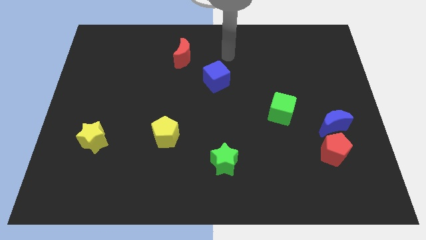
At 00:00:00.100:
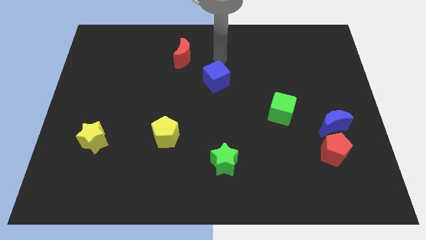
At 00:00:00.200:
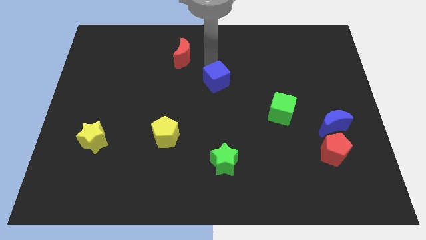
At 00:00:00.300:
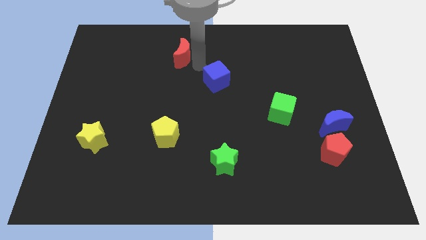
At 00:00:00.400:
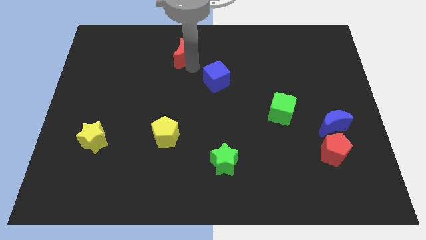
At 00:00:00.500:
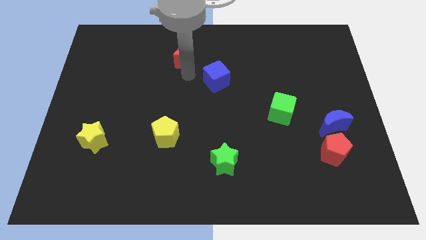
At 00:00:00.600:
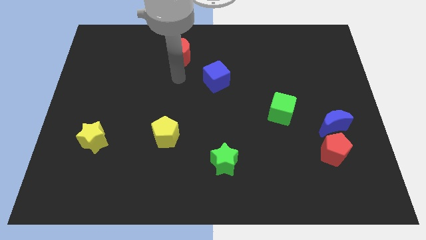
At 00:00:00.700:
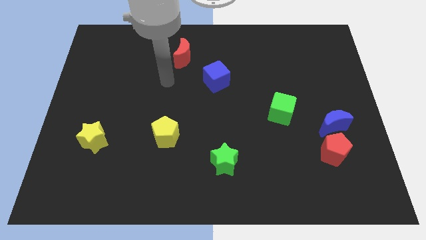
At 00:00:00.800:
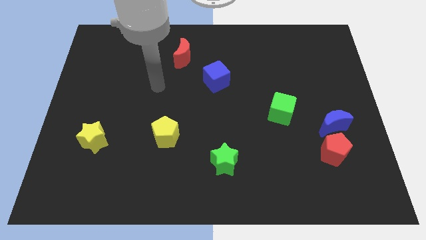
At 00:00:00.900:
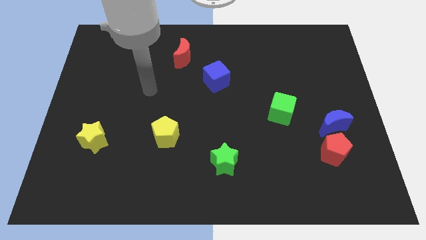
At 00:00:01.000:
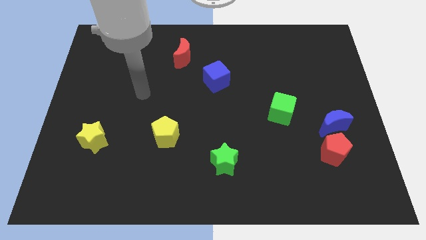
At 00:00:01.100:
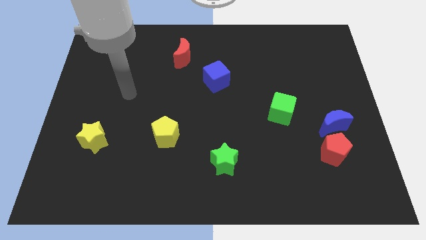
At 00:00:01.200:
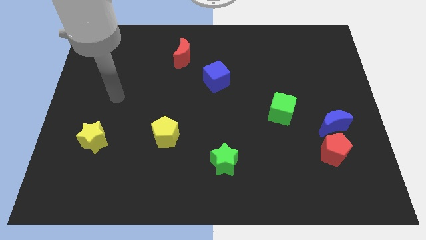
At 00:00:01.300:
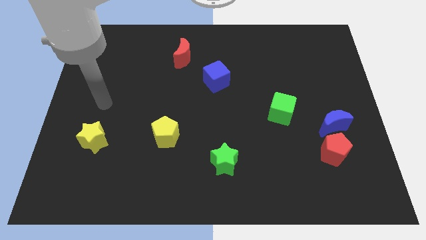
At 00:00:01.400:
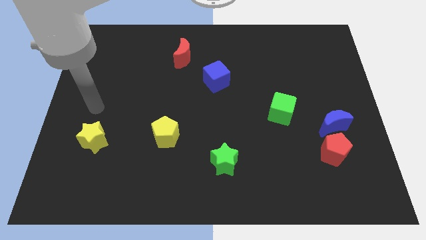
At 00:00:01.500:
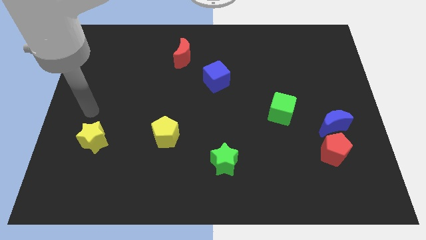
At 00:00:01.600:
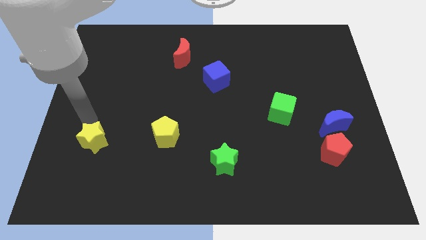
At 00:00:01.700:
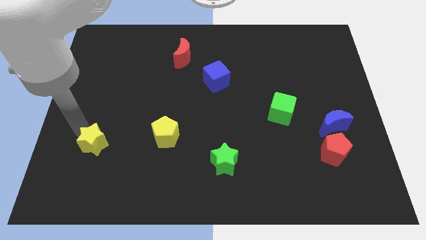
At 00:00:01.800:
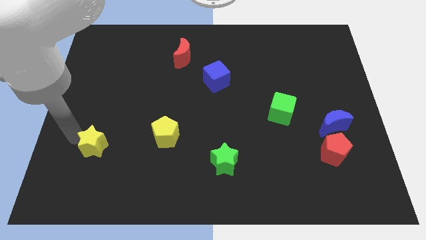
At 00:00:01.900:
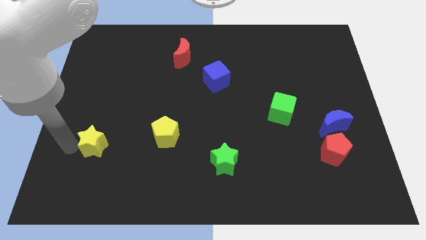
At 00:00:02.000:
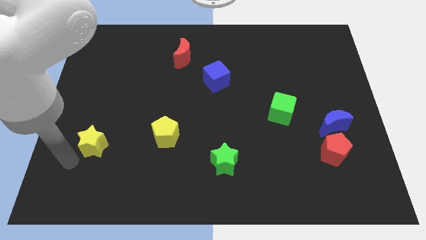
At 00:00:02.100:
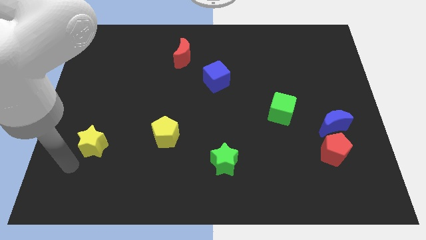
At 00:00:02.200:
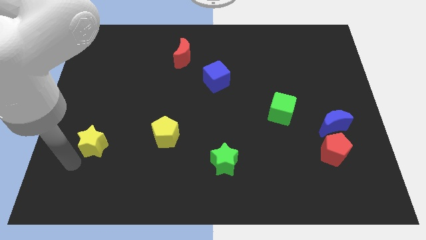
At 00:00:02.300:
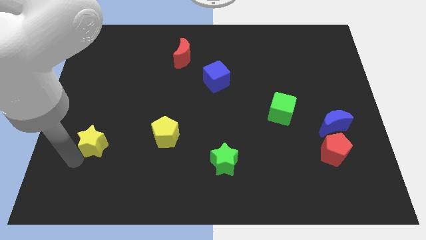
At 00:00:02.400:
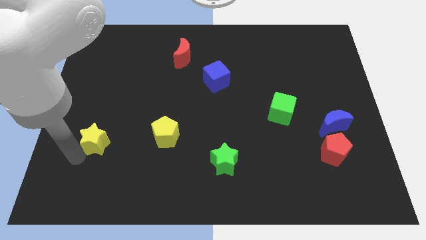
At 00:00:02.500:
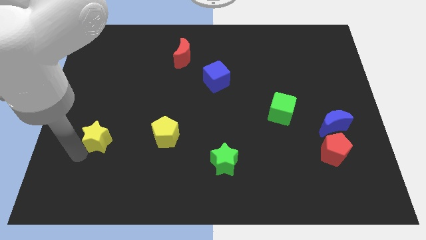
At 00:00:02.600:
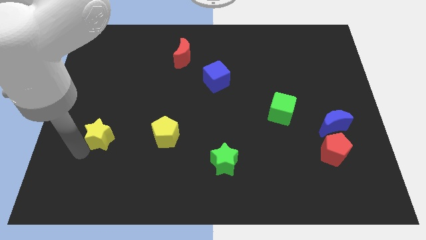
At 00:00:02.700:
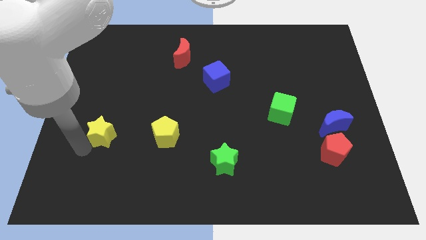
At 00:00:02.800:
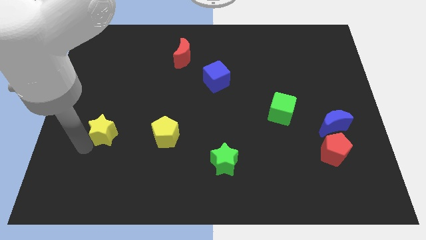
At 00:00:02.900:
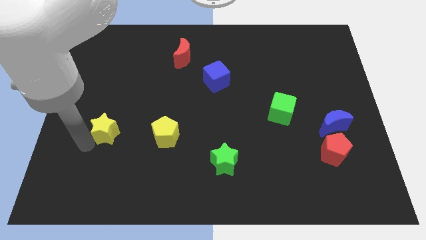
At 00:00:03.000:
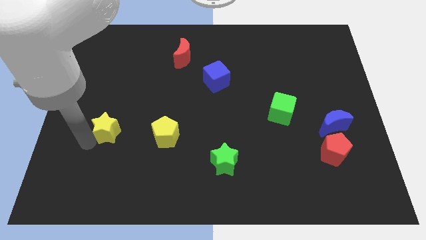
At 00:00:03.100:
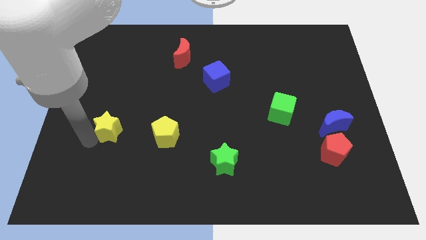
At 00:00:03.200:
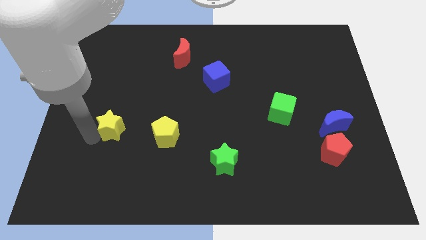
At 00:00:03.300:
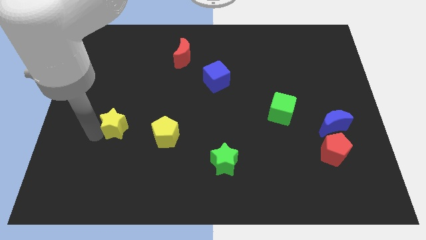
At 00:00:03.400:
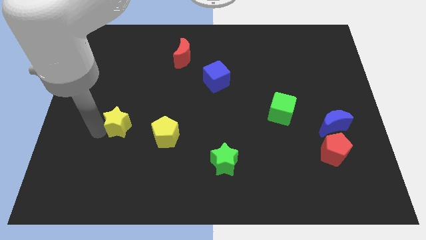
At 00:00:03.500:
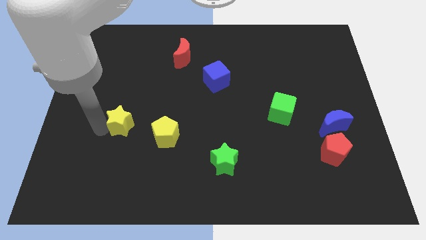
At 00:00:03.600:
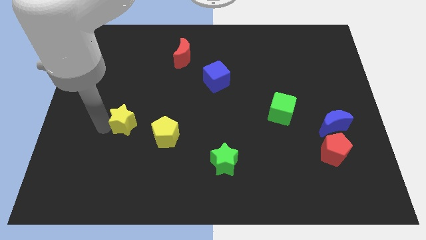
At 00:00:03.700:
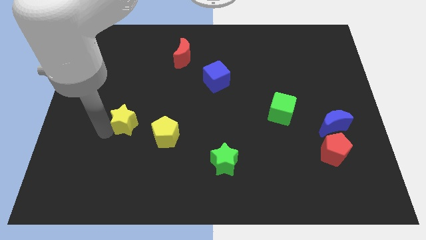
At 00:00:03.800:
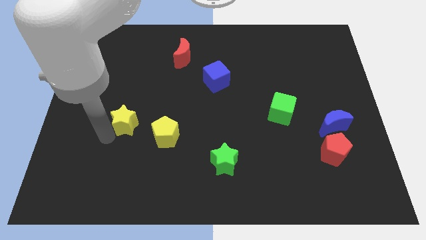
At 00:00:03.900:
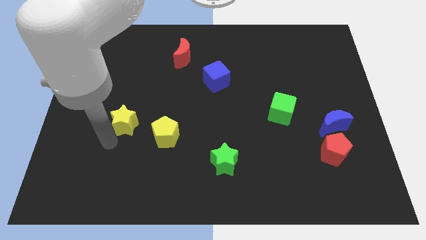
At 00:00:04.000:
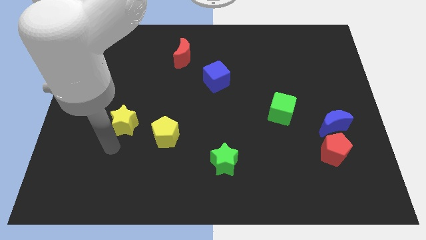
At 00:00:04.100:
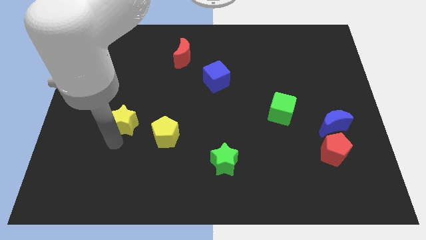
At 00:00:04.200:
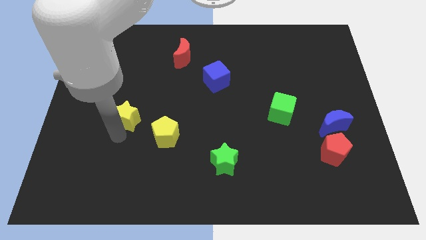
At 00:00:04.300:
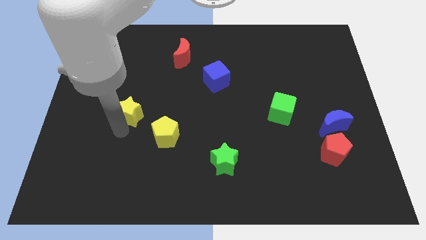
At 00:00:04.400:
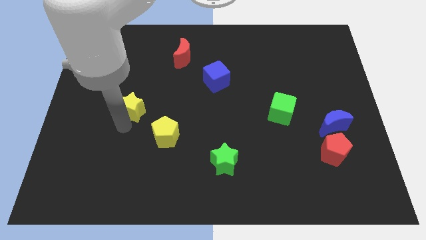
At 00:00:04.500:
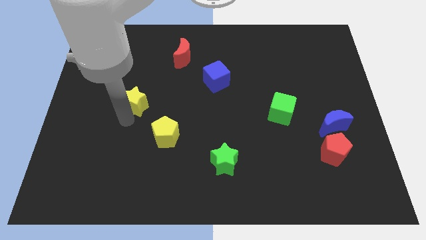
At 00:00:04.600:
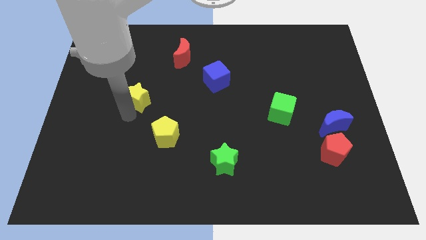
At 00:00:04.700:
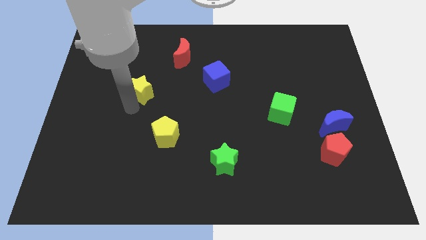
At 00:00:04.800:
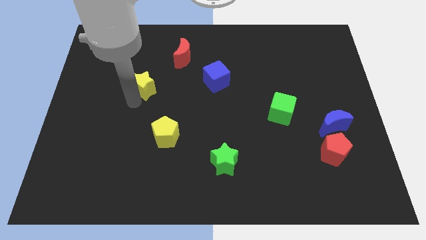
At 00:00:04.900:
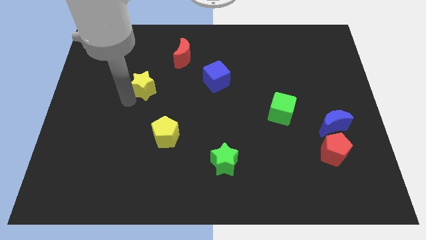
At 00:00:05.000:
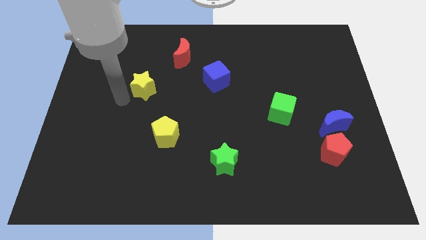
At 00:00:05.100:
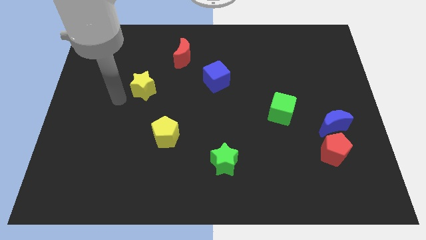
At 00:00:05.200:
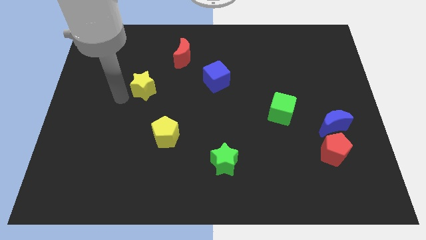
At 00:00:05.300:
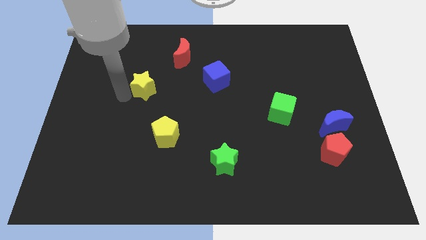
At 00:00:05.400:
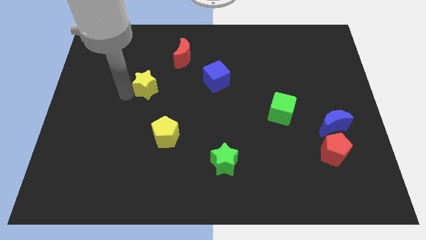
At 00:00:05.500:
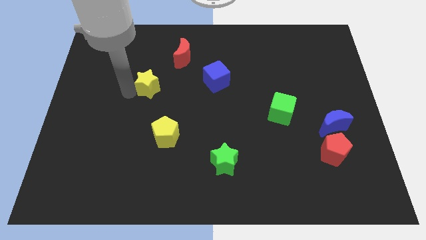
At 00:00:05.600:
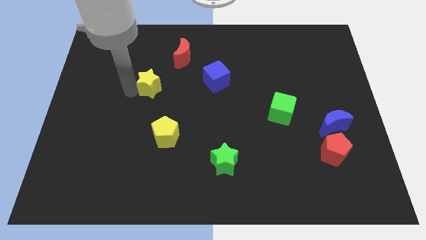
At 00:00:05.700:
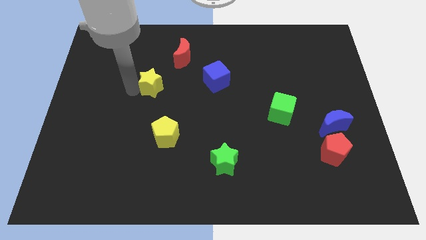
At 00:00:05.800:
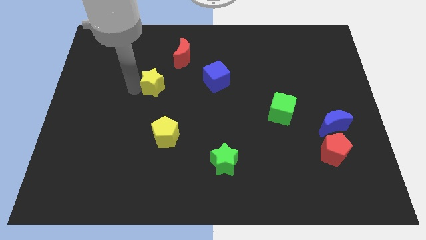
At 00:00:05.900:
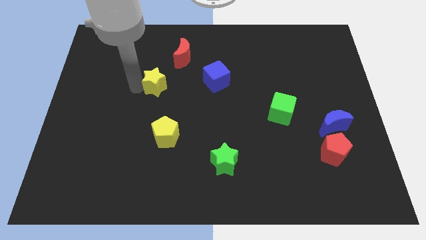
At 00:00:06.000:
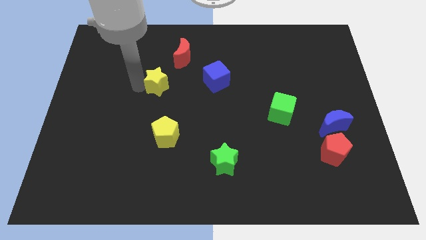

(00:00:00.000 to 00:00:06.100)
move the yellow star up and then right

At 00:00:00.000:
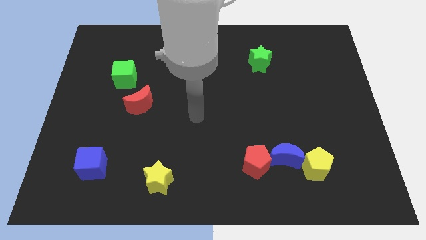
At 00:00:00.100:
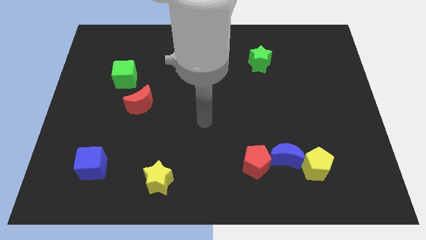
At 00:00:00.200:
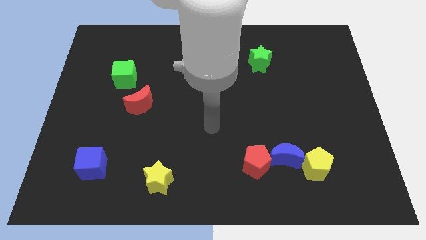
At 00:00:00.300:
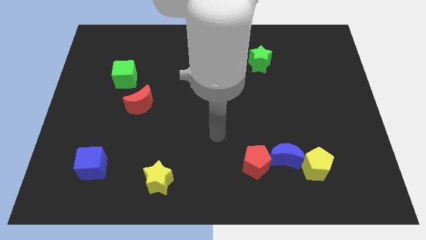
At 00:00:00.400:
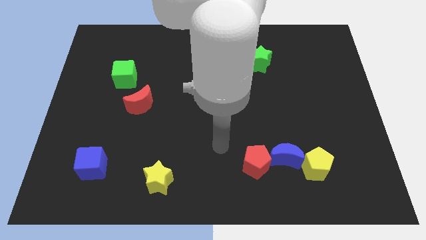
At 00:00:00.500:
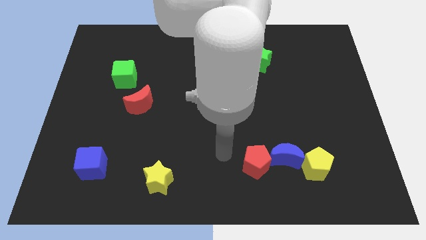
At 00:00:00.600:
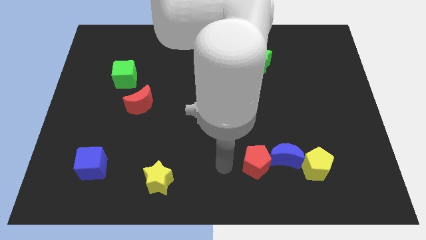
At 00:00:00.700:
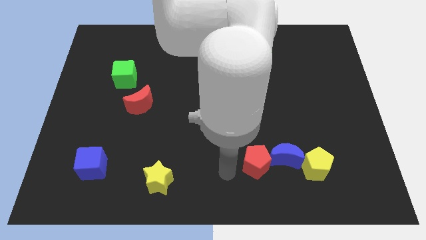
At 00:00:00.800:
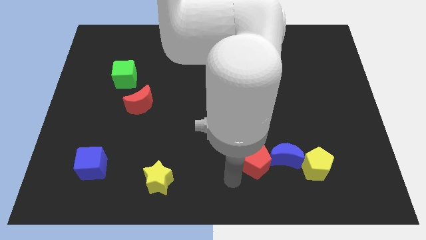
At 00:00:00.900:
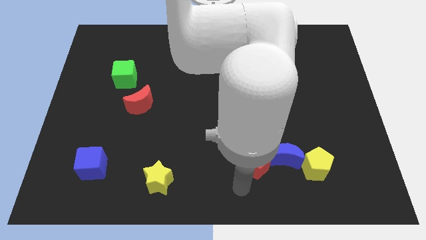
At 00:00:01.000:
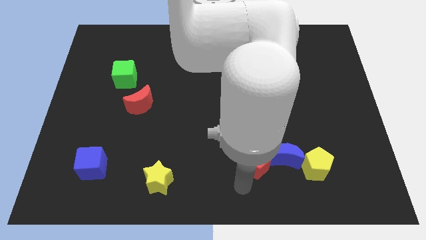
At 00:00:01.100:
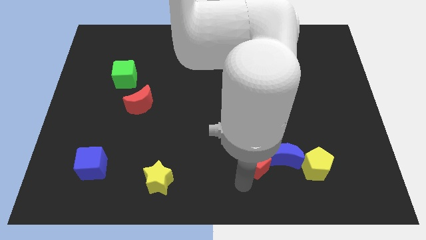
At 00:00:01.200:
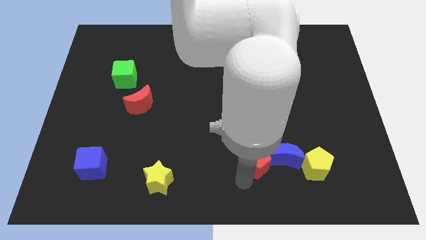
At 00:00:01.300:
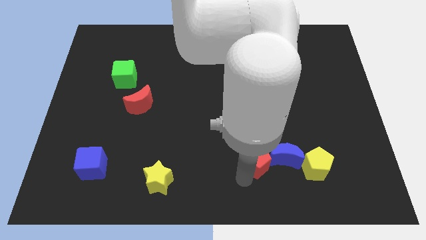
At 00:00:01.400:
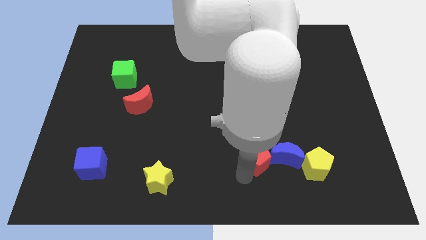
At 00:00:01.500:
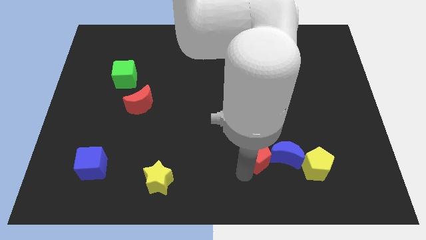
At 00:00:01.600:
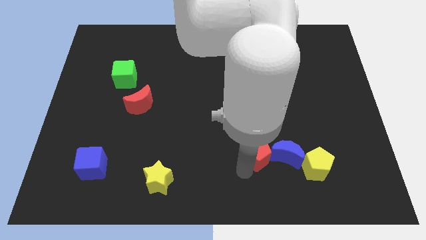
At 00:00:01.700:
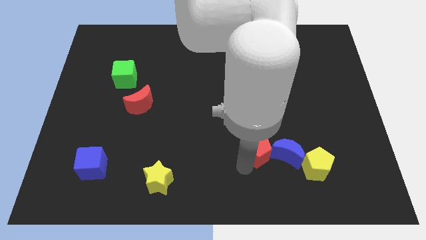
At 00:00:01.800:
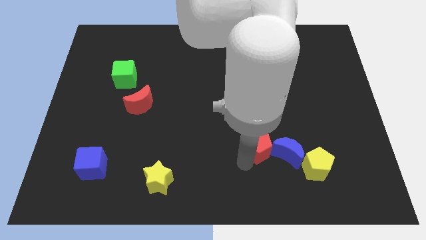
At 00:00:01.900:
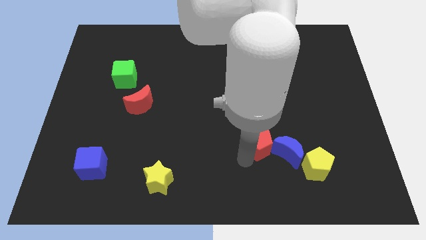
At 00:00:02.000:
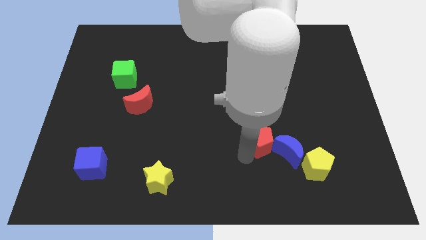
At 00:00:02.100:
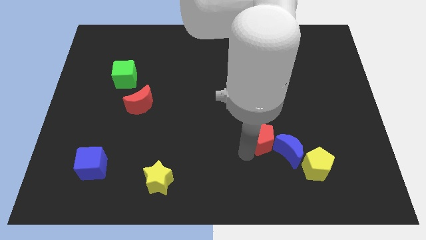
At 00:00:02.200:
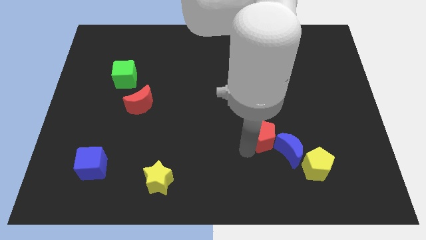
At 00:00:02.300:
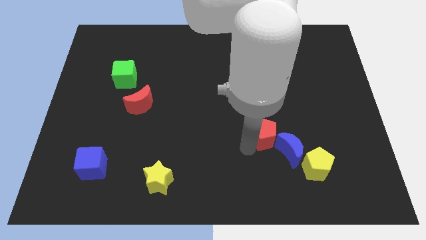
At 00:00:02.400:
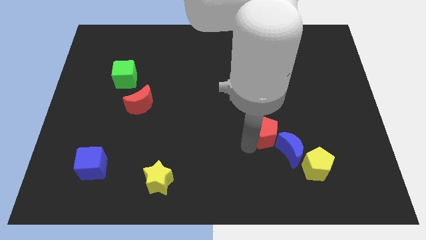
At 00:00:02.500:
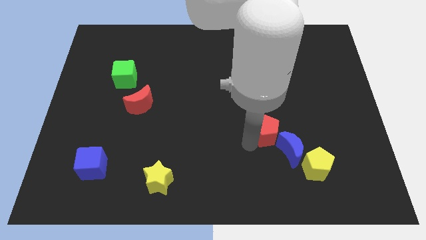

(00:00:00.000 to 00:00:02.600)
slide the red pentagon up and right diagonally somewhat
